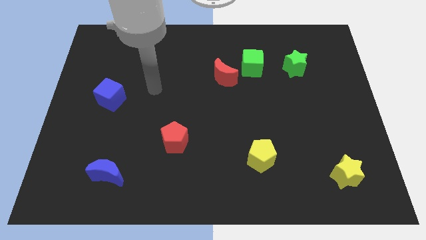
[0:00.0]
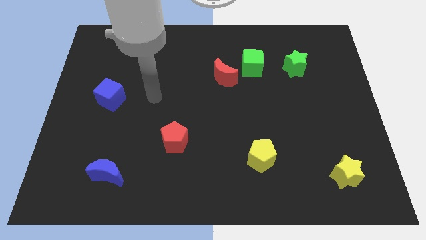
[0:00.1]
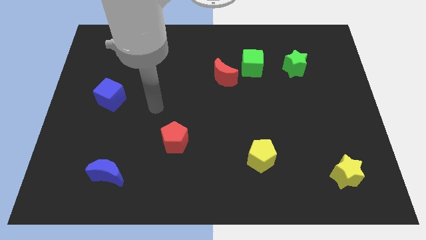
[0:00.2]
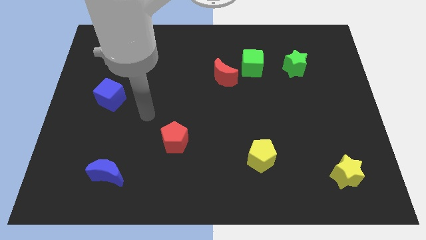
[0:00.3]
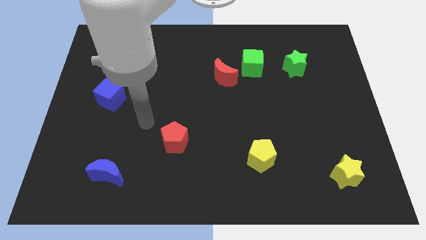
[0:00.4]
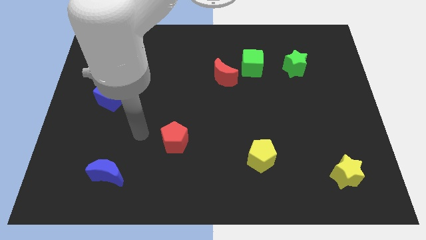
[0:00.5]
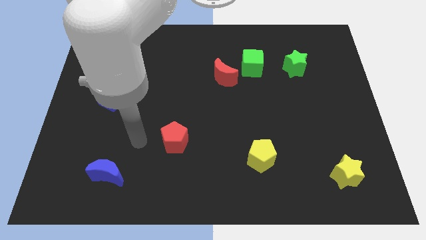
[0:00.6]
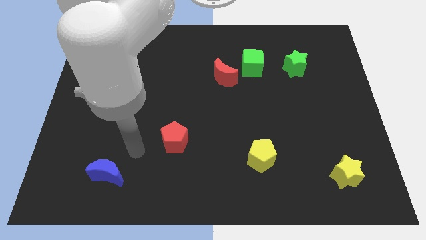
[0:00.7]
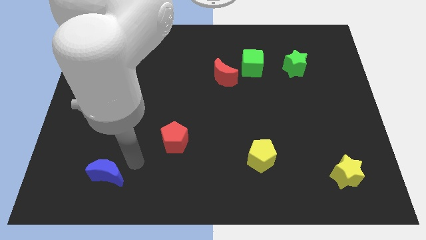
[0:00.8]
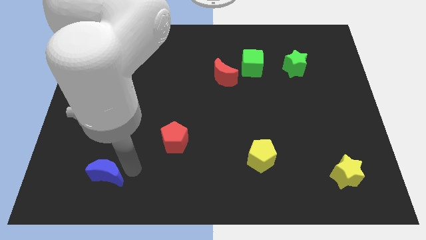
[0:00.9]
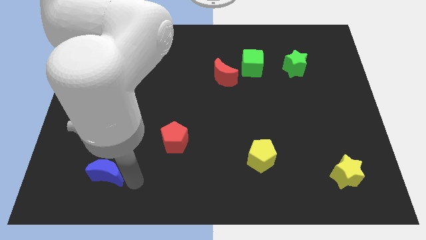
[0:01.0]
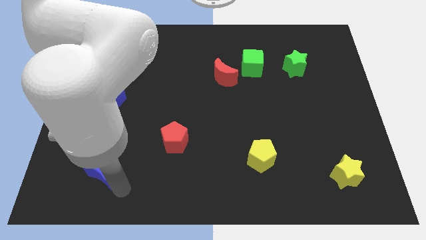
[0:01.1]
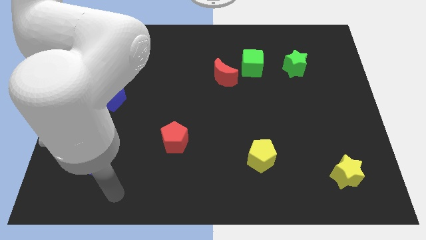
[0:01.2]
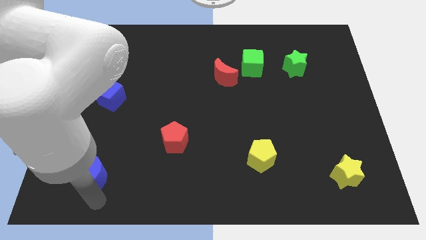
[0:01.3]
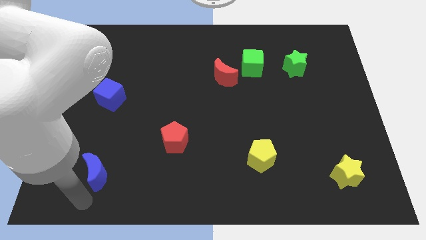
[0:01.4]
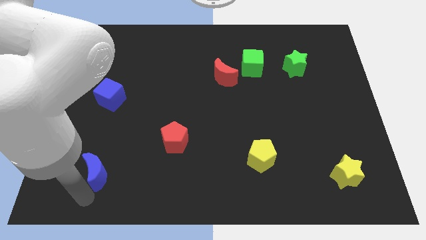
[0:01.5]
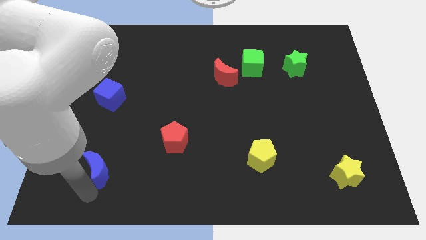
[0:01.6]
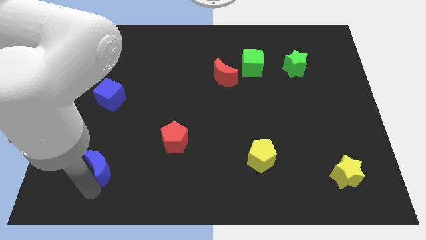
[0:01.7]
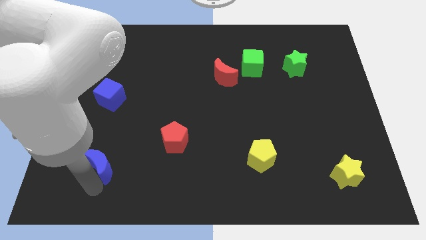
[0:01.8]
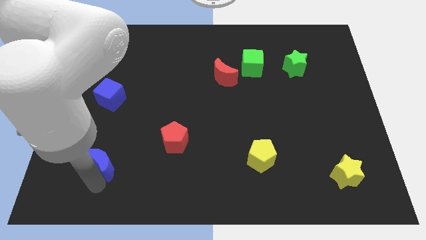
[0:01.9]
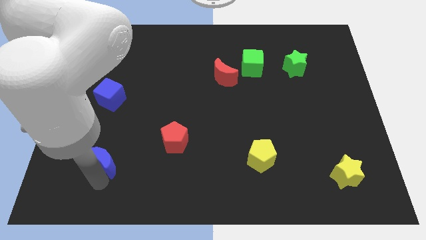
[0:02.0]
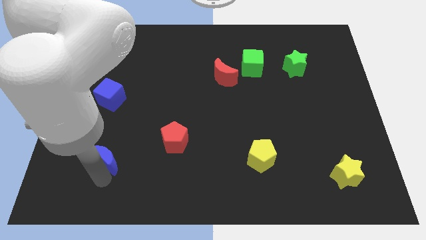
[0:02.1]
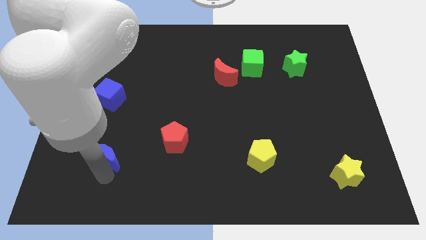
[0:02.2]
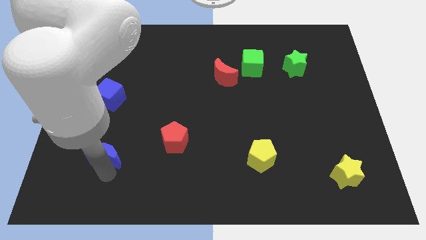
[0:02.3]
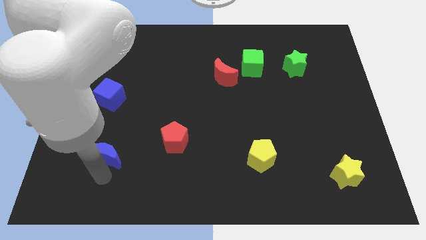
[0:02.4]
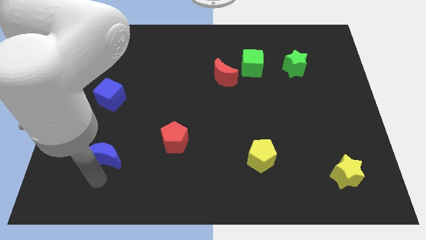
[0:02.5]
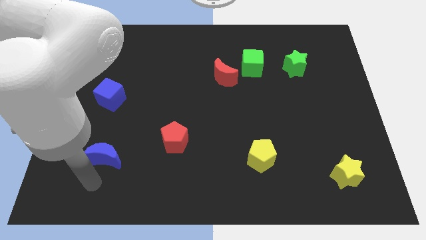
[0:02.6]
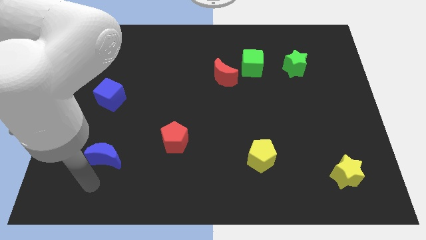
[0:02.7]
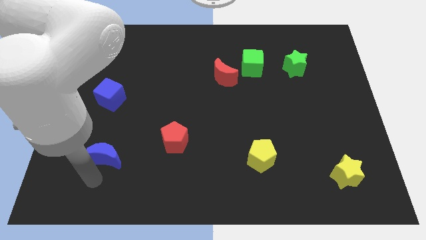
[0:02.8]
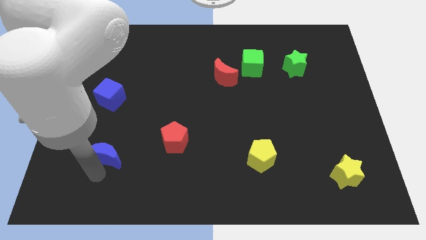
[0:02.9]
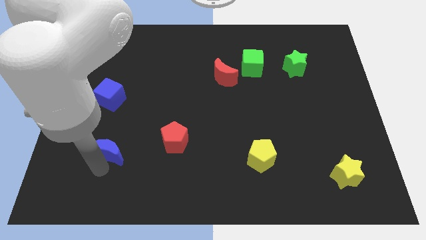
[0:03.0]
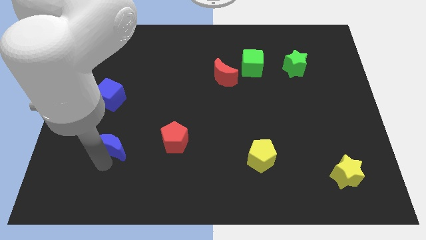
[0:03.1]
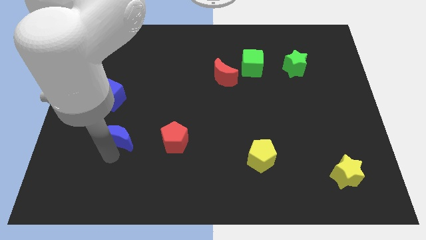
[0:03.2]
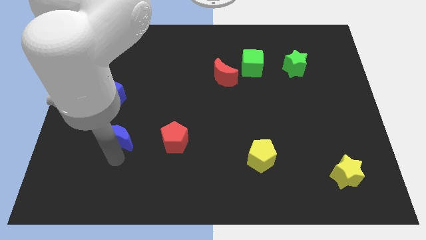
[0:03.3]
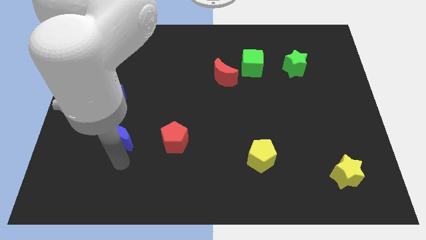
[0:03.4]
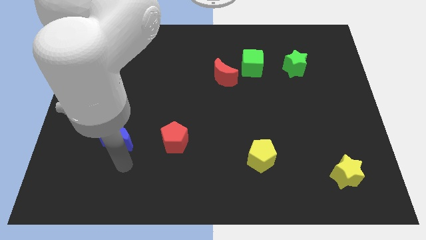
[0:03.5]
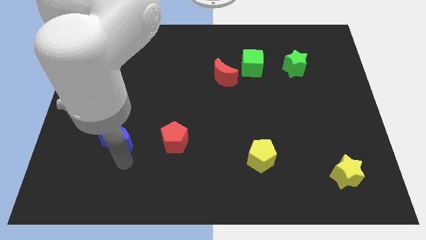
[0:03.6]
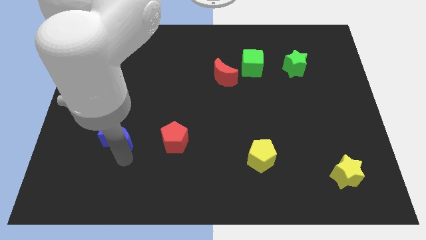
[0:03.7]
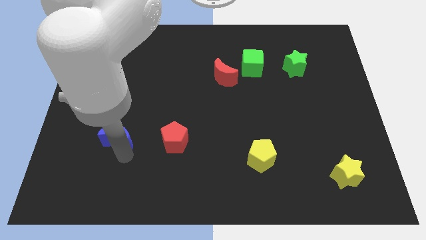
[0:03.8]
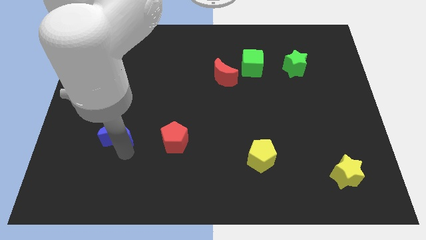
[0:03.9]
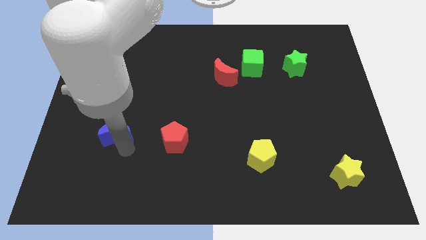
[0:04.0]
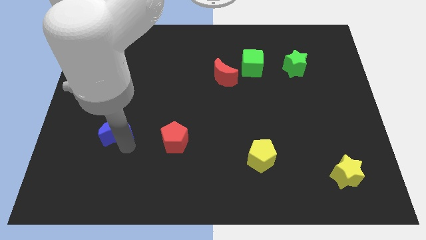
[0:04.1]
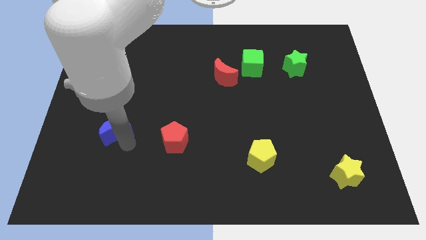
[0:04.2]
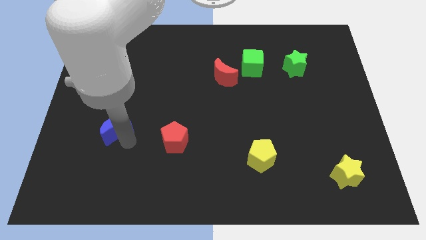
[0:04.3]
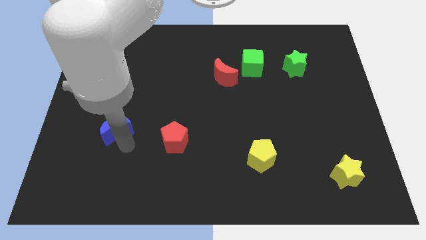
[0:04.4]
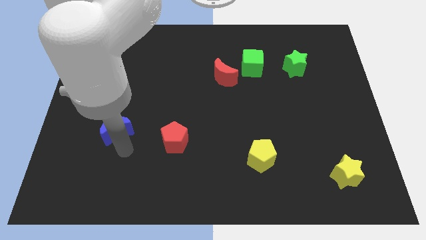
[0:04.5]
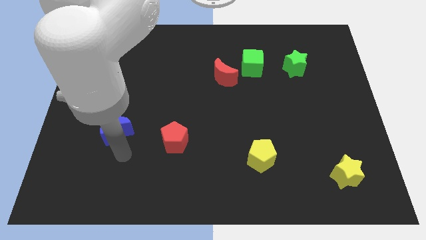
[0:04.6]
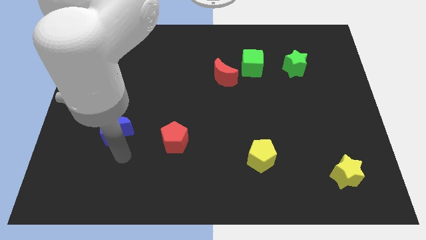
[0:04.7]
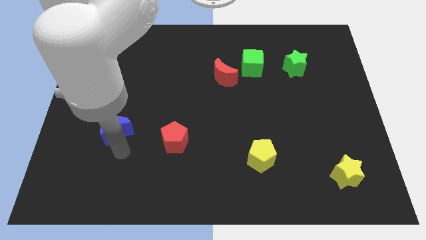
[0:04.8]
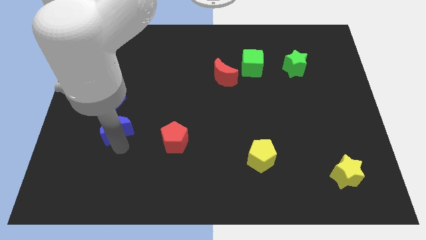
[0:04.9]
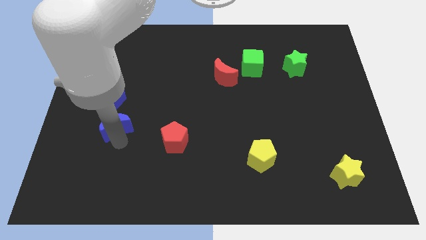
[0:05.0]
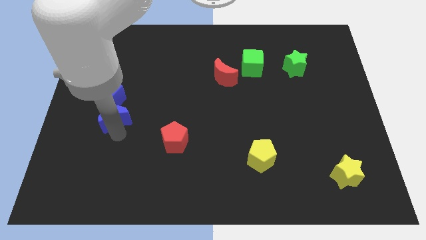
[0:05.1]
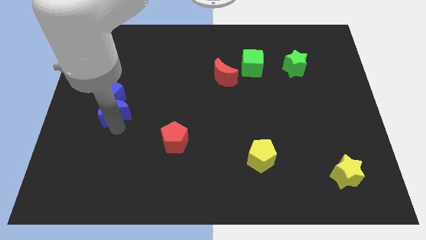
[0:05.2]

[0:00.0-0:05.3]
slide the blue moon towards the blue cube

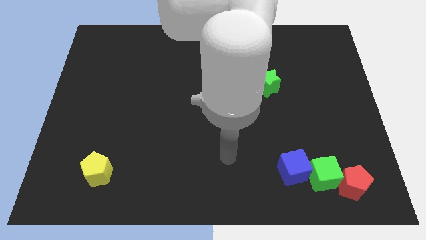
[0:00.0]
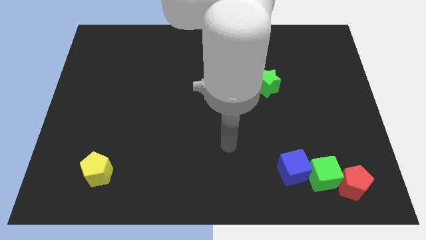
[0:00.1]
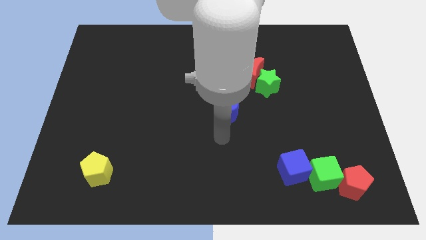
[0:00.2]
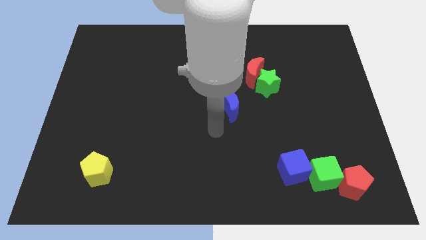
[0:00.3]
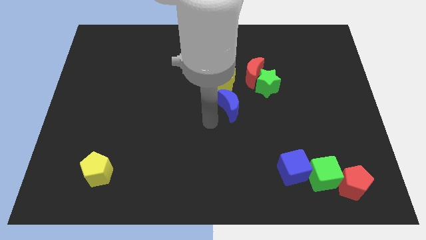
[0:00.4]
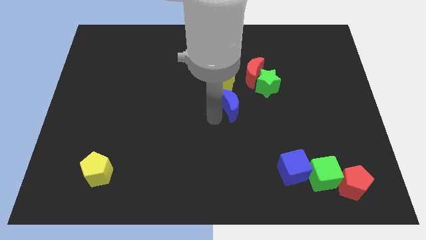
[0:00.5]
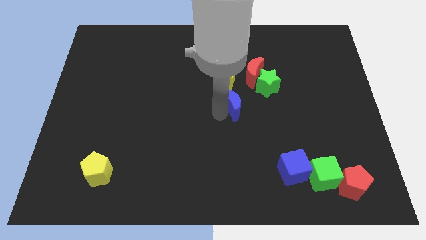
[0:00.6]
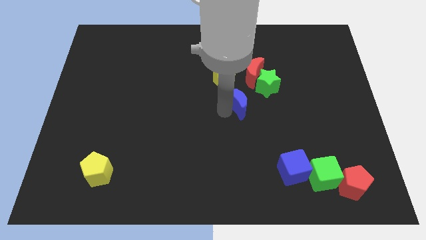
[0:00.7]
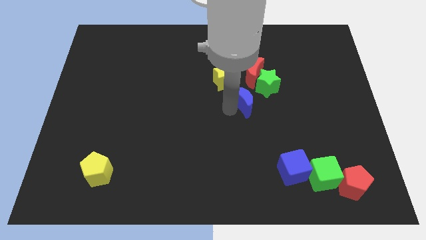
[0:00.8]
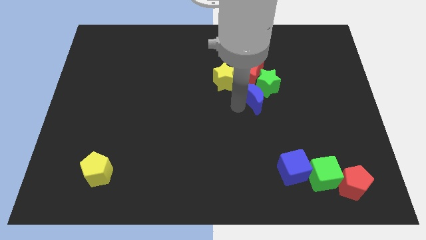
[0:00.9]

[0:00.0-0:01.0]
slide the blue moon to the green star
